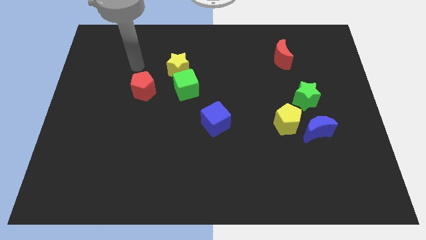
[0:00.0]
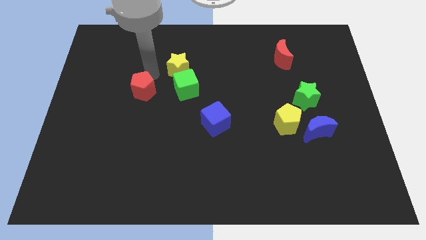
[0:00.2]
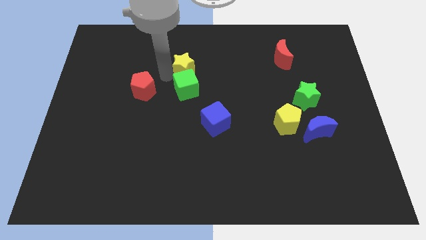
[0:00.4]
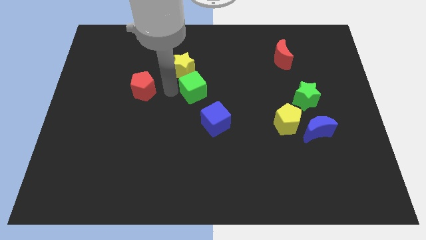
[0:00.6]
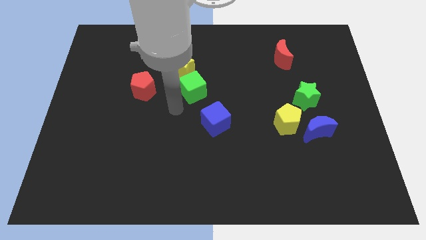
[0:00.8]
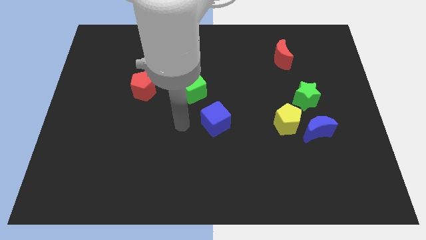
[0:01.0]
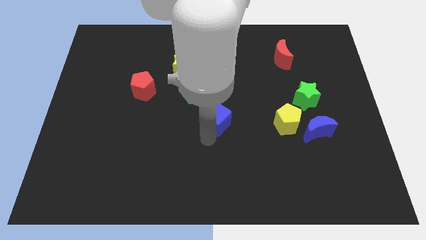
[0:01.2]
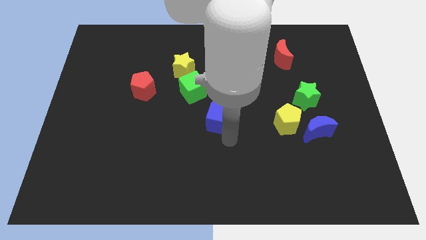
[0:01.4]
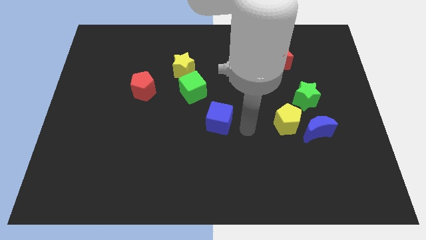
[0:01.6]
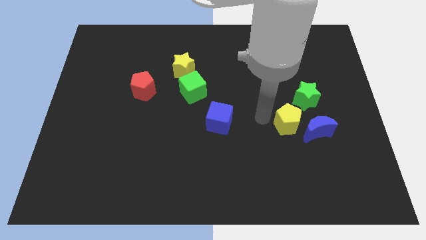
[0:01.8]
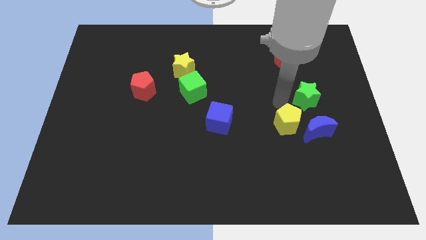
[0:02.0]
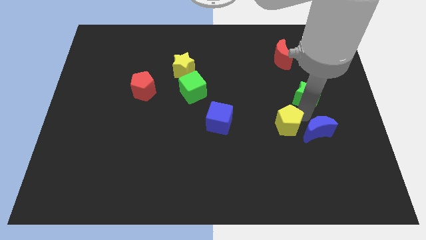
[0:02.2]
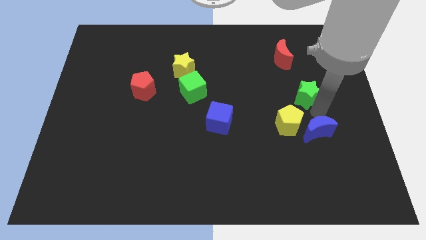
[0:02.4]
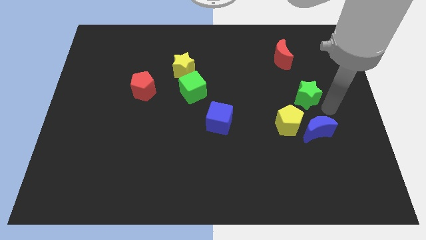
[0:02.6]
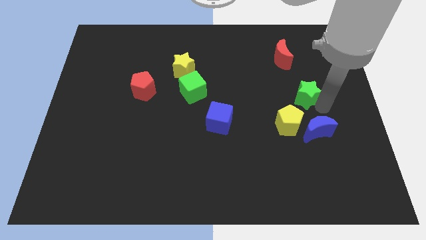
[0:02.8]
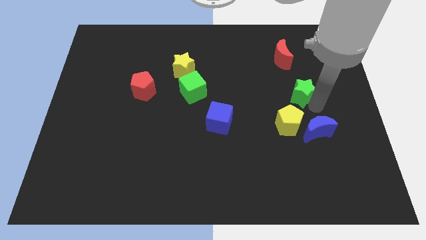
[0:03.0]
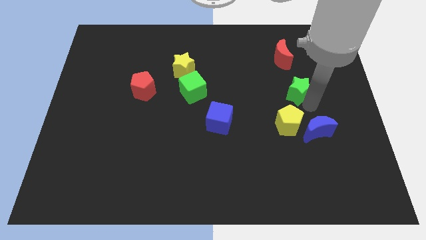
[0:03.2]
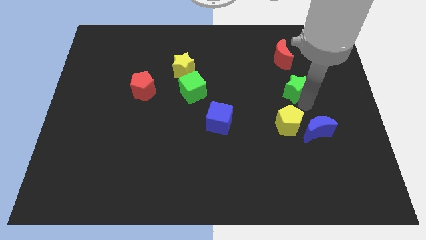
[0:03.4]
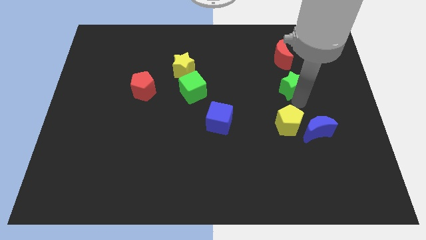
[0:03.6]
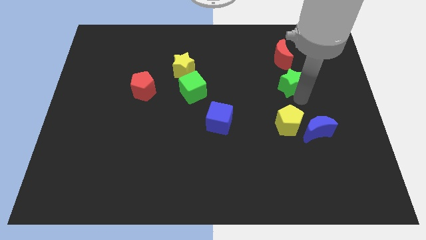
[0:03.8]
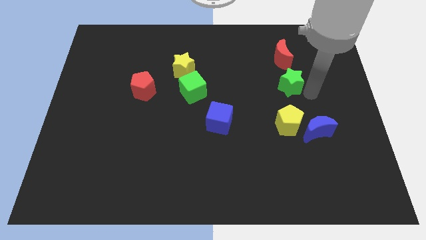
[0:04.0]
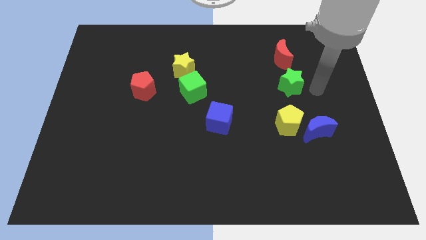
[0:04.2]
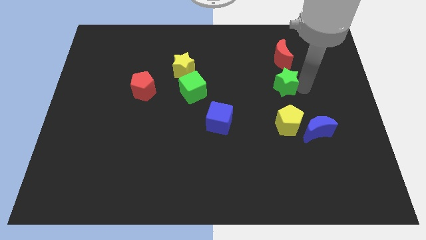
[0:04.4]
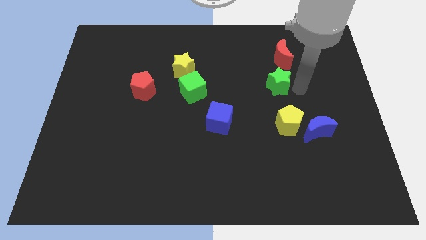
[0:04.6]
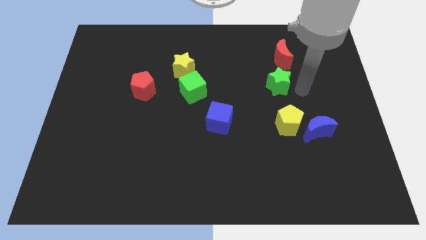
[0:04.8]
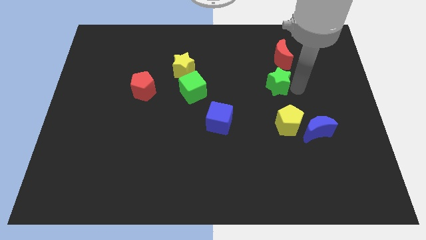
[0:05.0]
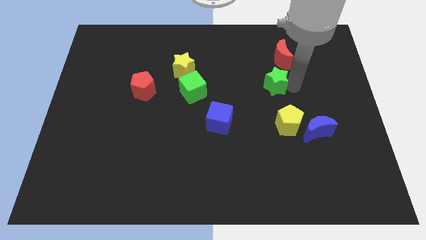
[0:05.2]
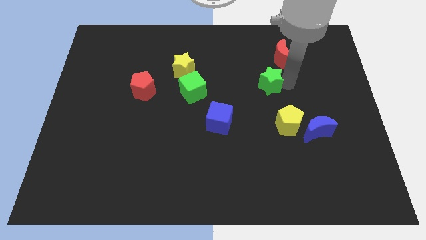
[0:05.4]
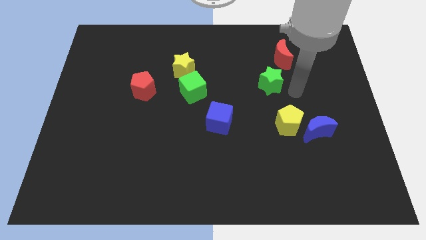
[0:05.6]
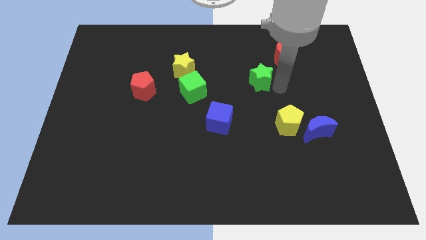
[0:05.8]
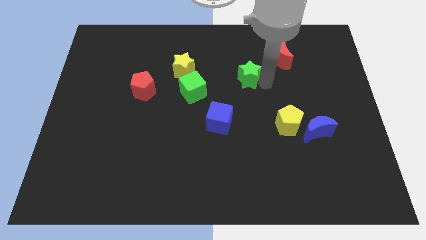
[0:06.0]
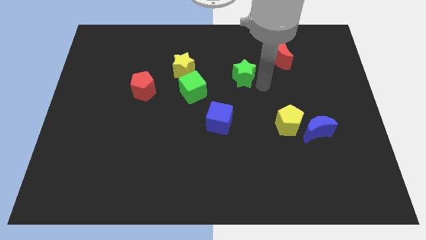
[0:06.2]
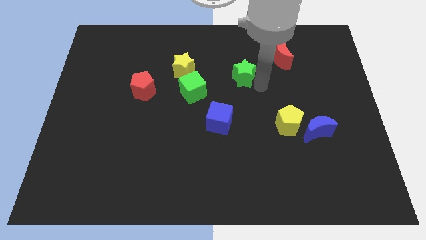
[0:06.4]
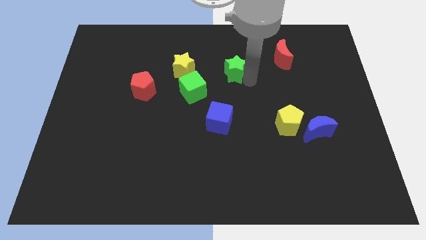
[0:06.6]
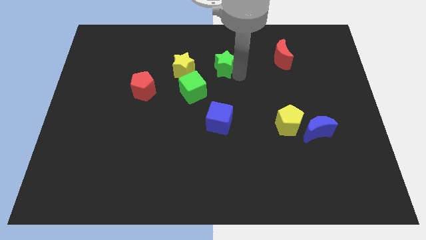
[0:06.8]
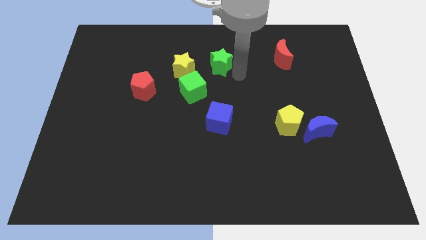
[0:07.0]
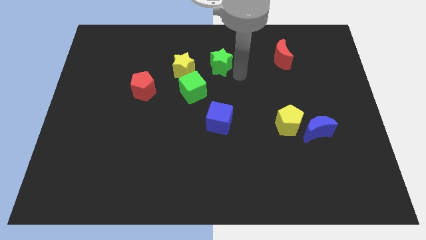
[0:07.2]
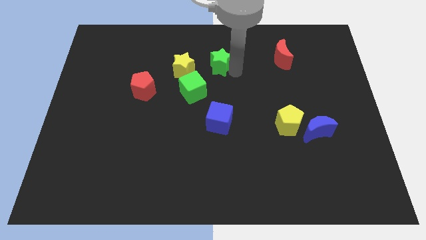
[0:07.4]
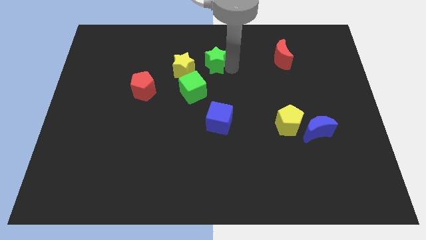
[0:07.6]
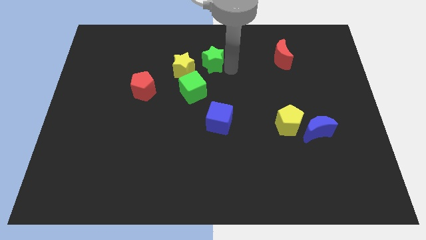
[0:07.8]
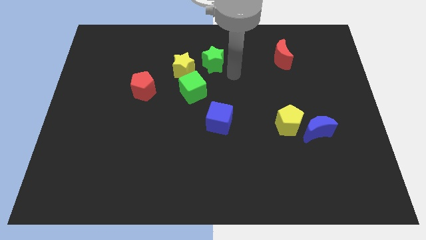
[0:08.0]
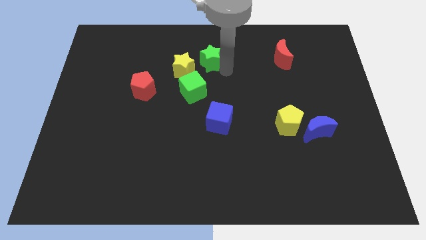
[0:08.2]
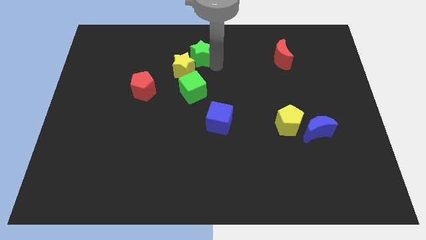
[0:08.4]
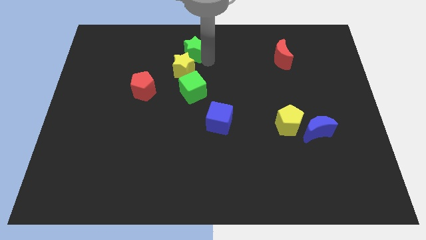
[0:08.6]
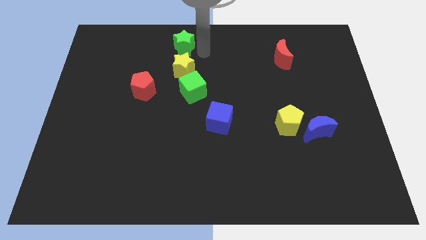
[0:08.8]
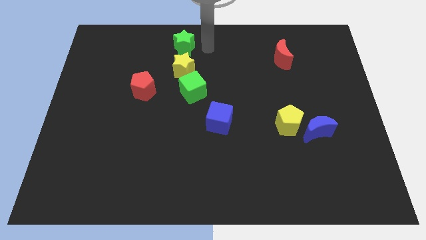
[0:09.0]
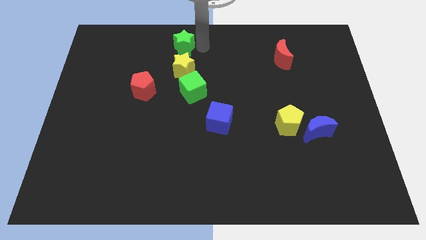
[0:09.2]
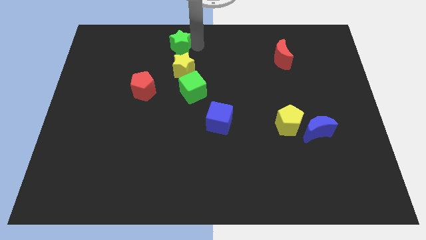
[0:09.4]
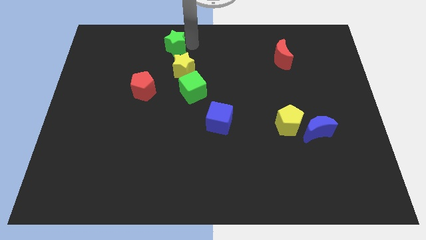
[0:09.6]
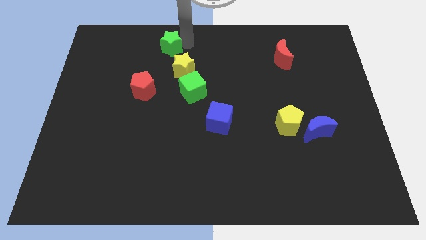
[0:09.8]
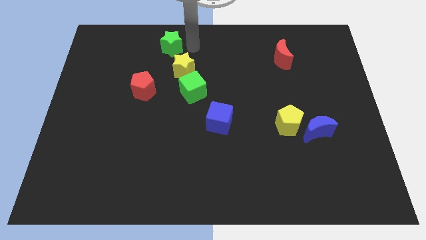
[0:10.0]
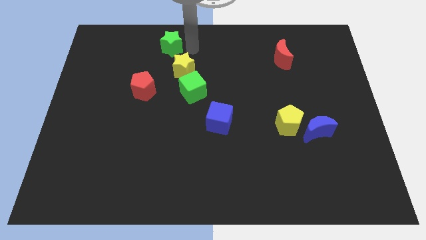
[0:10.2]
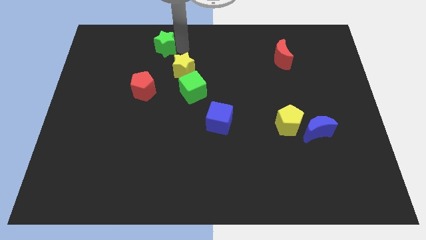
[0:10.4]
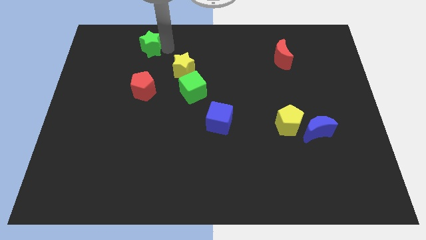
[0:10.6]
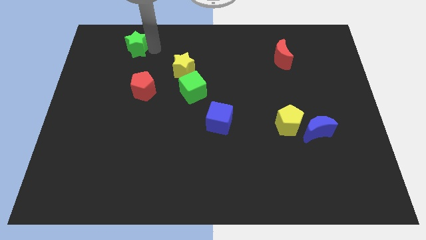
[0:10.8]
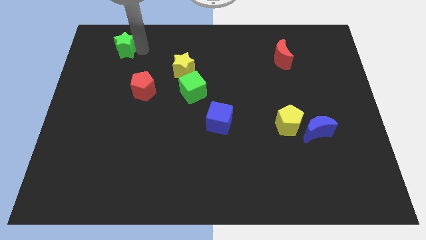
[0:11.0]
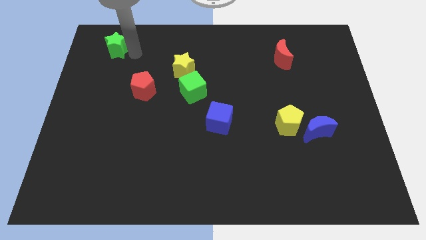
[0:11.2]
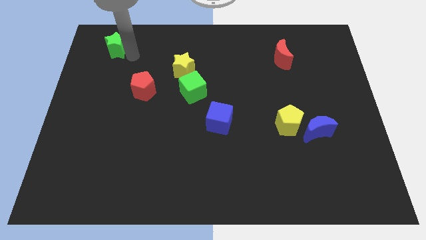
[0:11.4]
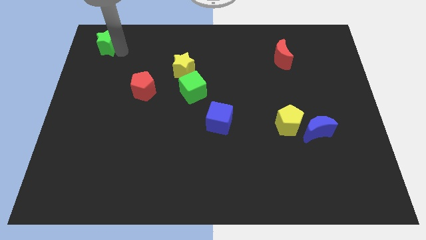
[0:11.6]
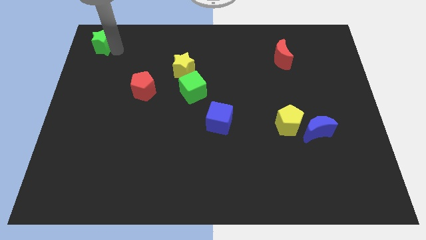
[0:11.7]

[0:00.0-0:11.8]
slide the green star to the top left of the board

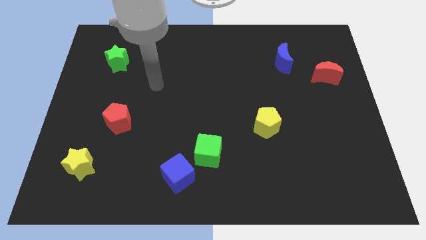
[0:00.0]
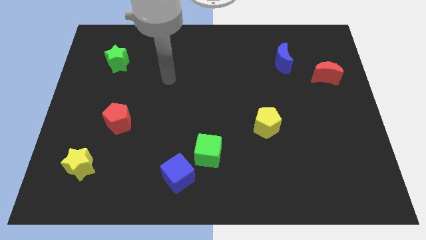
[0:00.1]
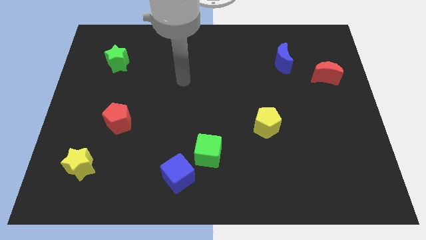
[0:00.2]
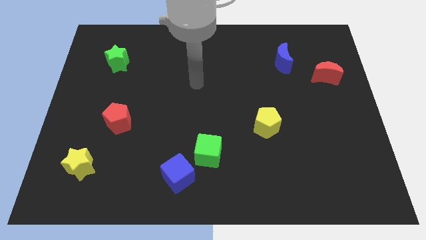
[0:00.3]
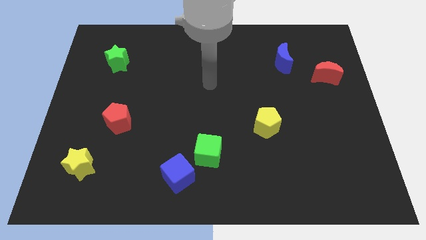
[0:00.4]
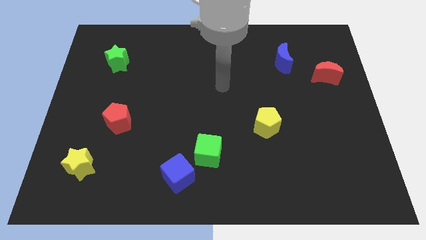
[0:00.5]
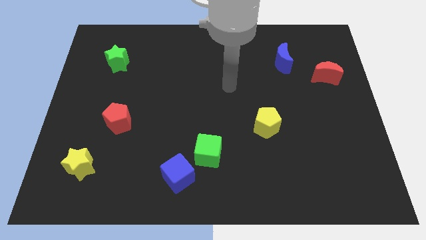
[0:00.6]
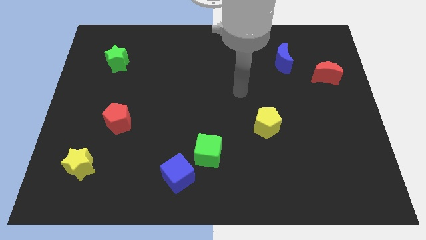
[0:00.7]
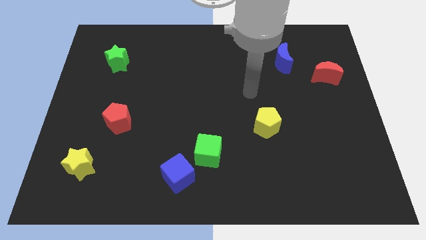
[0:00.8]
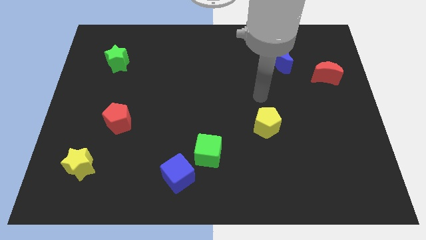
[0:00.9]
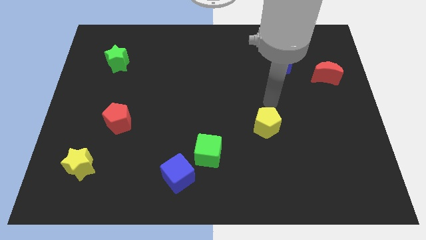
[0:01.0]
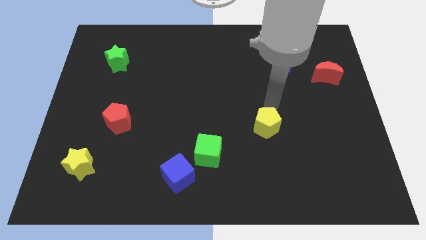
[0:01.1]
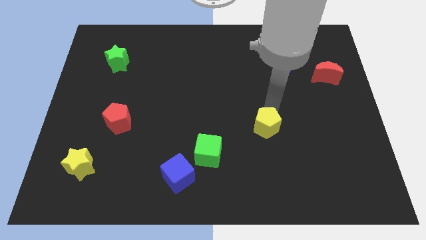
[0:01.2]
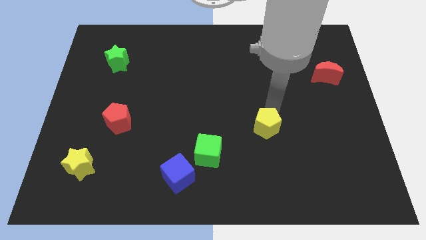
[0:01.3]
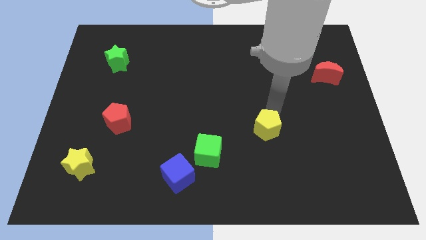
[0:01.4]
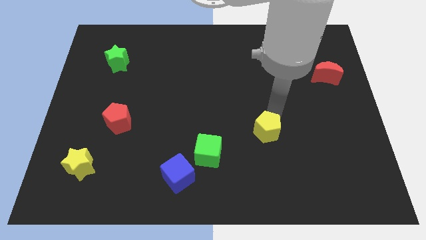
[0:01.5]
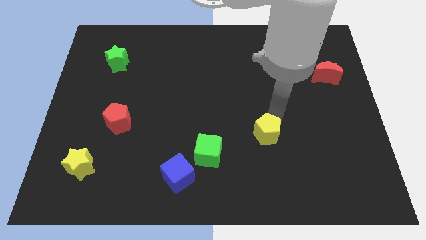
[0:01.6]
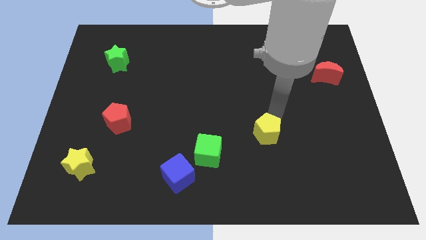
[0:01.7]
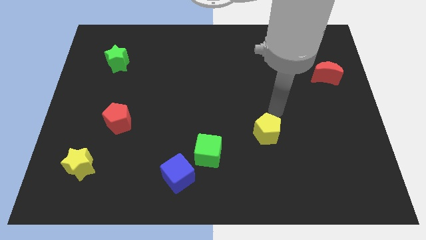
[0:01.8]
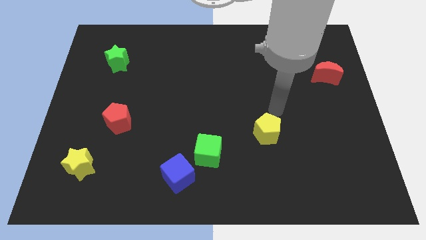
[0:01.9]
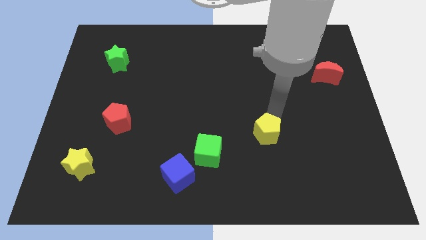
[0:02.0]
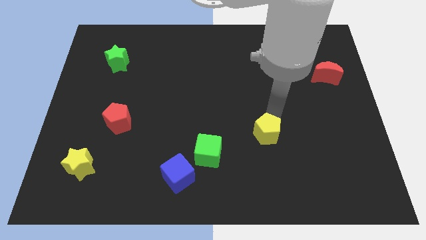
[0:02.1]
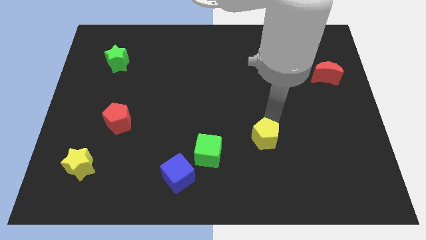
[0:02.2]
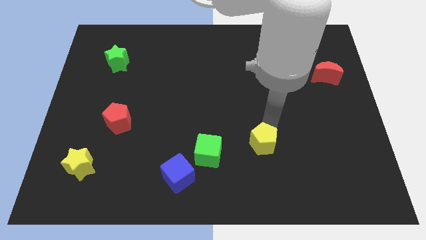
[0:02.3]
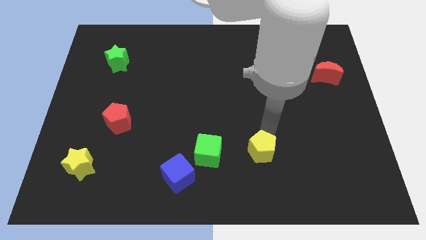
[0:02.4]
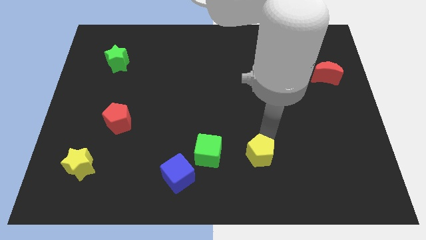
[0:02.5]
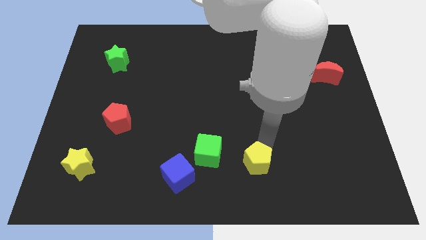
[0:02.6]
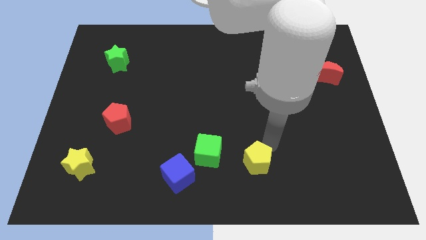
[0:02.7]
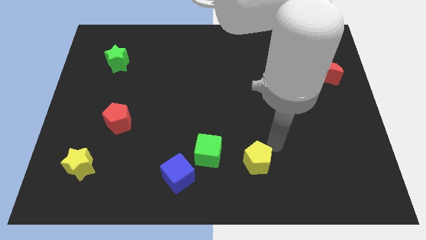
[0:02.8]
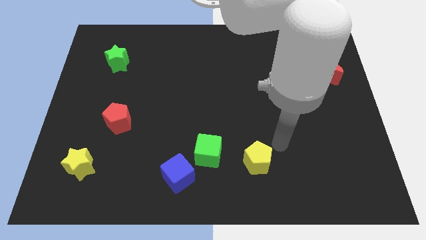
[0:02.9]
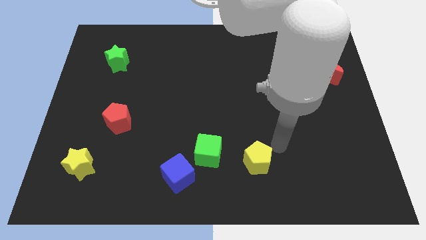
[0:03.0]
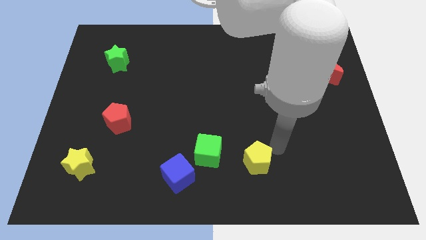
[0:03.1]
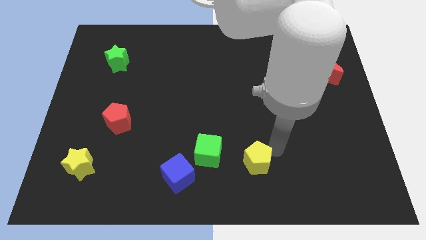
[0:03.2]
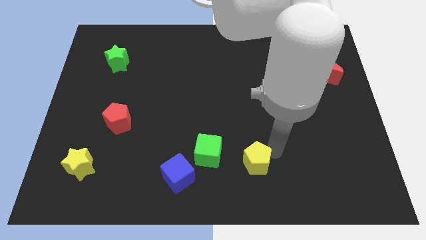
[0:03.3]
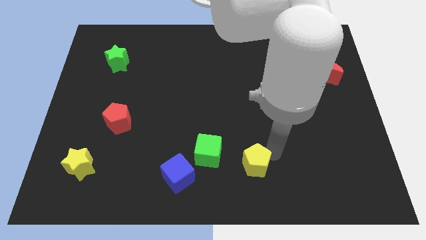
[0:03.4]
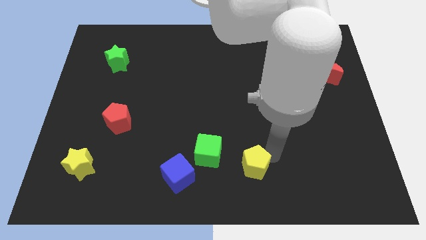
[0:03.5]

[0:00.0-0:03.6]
move the yellow pentagon to the bottom
